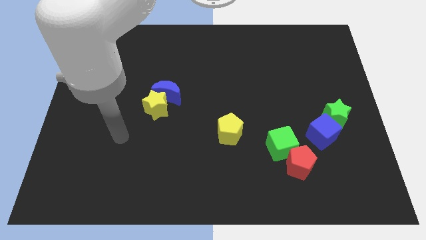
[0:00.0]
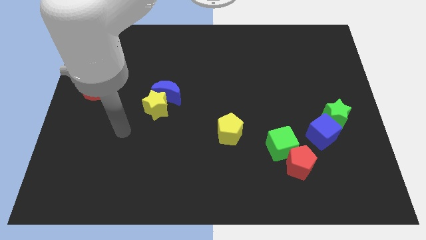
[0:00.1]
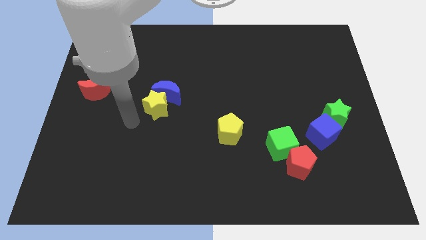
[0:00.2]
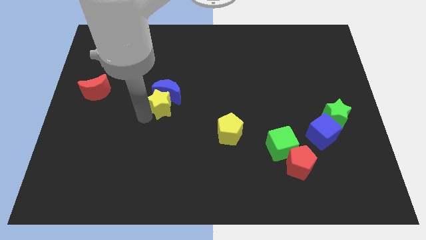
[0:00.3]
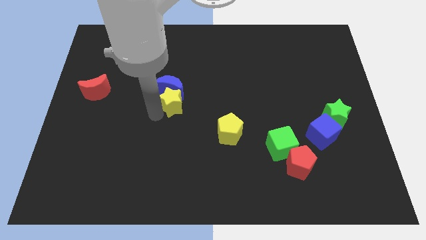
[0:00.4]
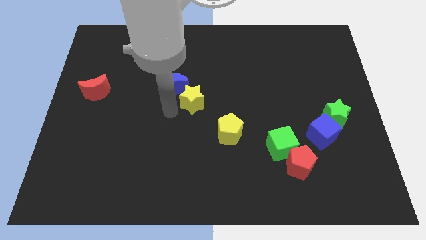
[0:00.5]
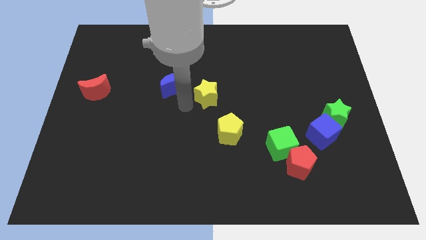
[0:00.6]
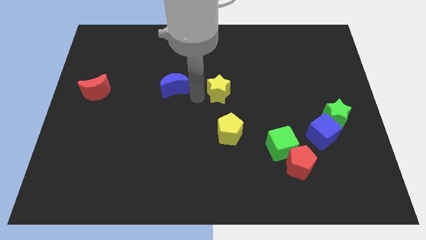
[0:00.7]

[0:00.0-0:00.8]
separate the blue moon from the yellow star

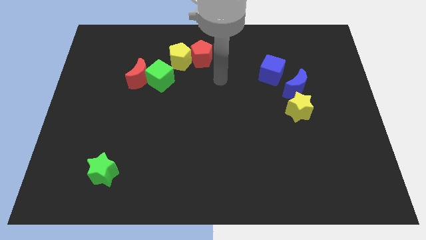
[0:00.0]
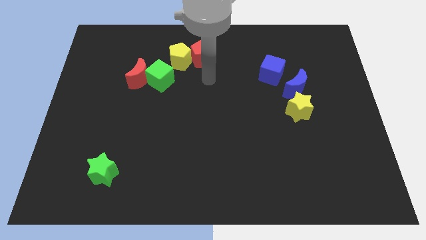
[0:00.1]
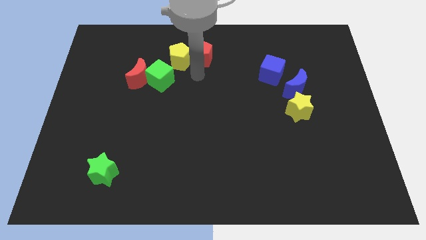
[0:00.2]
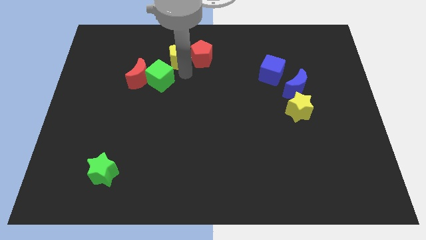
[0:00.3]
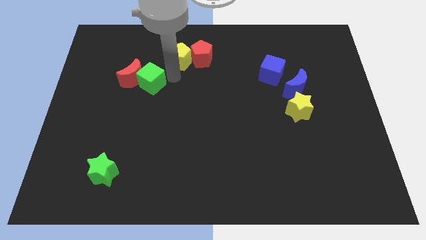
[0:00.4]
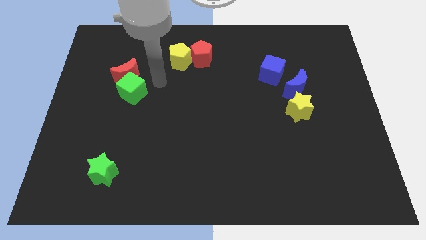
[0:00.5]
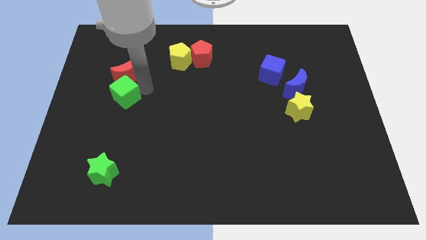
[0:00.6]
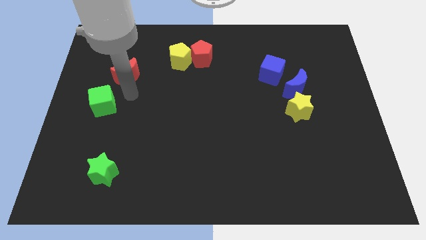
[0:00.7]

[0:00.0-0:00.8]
move the red moon away from the green cube

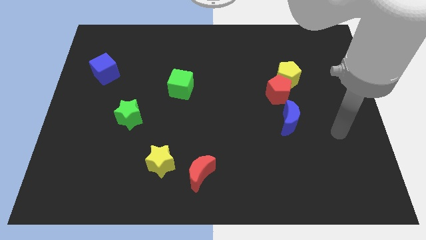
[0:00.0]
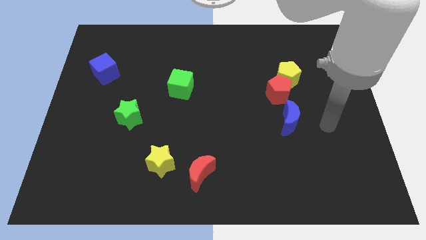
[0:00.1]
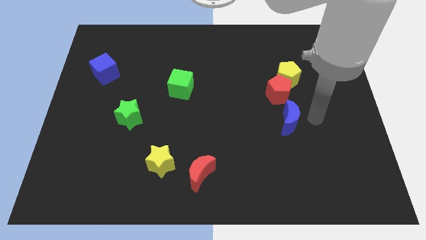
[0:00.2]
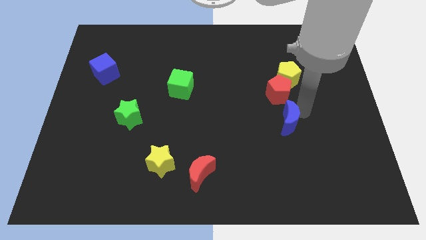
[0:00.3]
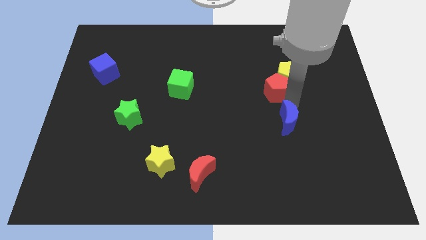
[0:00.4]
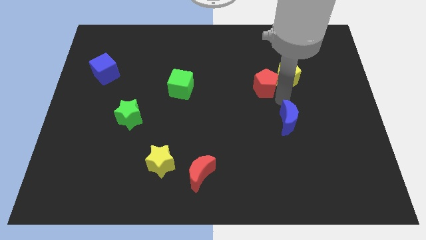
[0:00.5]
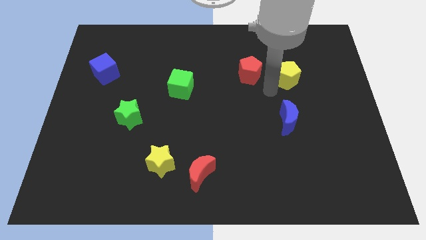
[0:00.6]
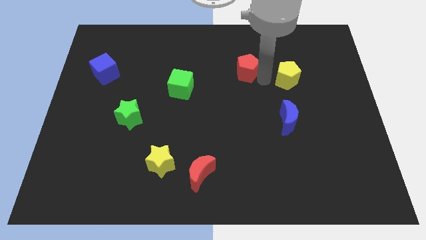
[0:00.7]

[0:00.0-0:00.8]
separate the yellow pentagon from the red pentagon

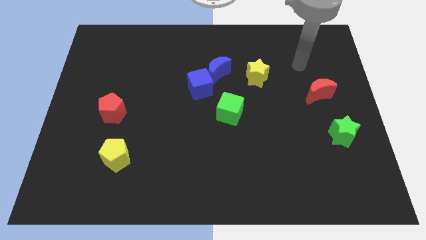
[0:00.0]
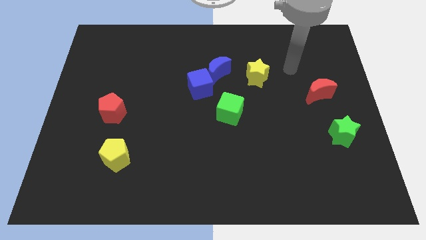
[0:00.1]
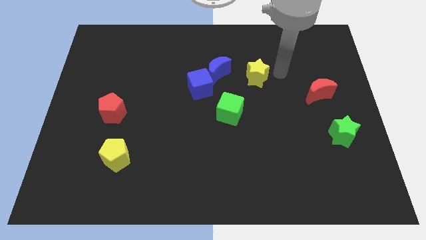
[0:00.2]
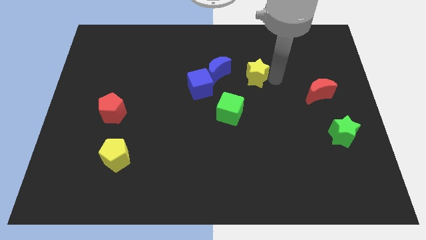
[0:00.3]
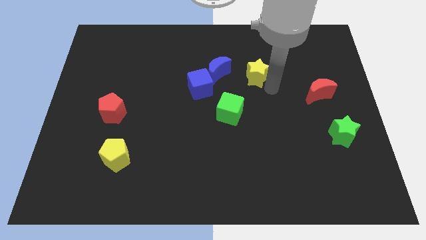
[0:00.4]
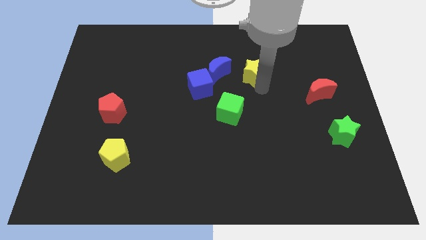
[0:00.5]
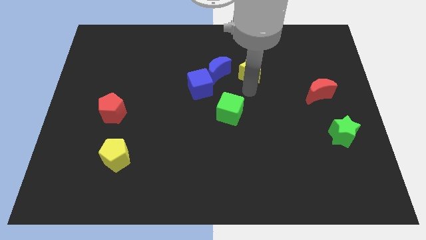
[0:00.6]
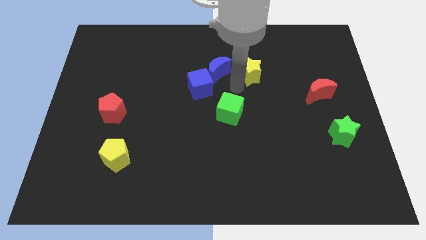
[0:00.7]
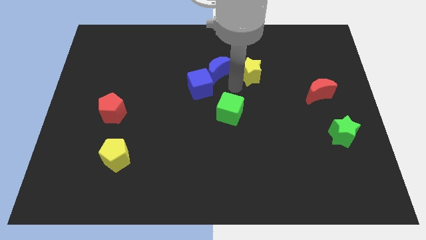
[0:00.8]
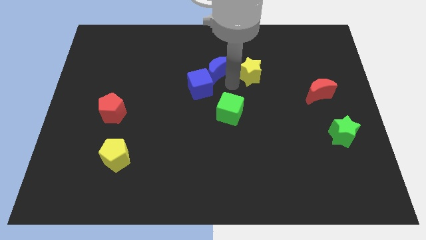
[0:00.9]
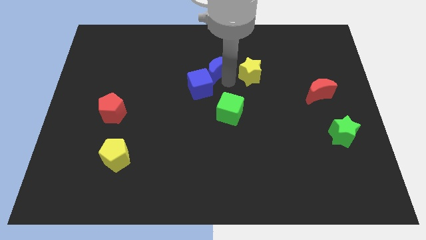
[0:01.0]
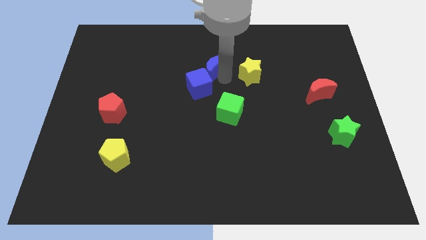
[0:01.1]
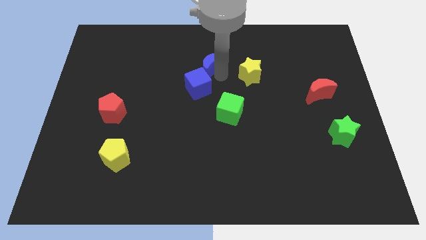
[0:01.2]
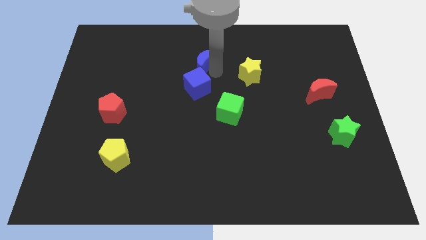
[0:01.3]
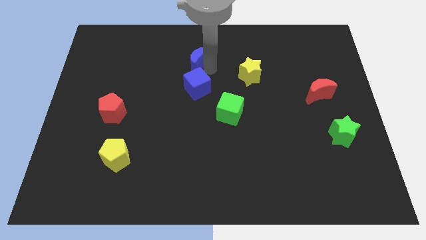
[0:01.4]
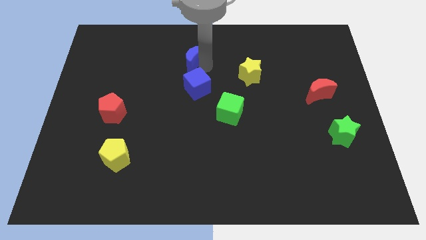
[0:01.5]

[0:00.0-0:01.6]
pull the blue moon apart from the blue cube and yellow star

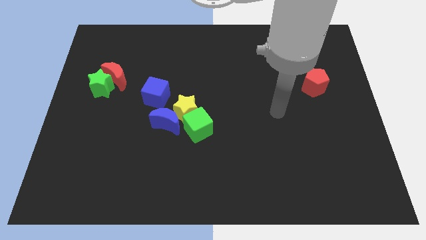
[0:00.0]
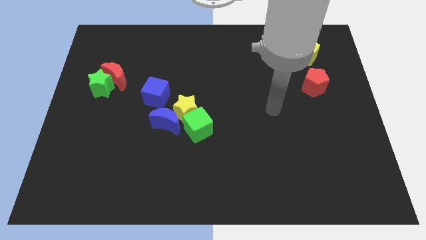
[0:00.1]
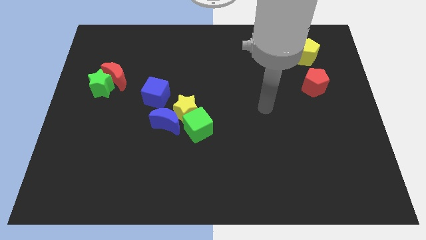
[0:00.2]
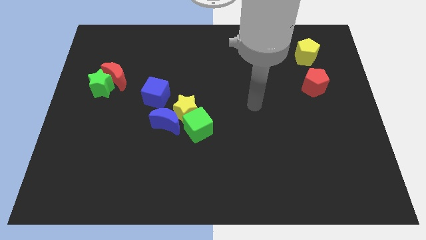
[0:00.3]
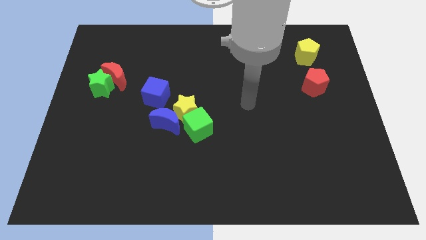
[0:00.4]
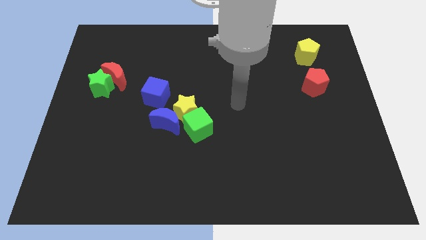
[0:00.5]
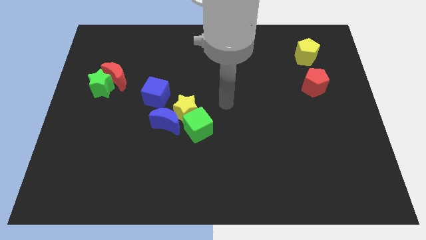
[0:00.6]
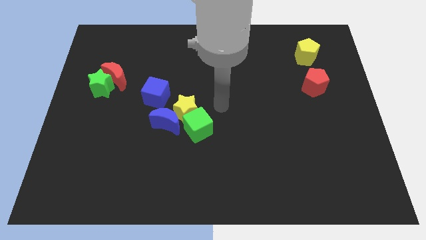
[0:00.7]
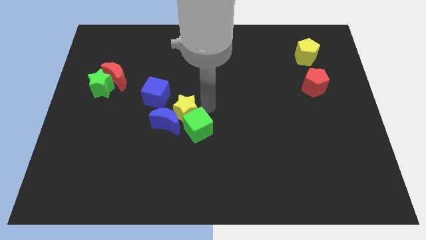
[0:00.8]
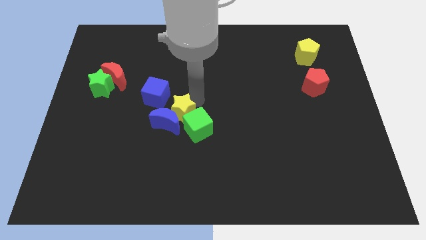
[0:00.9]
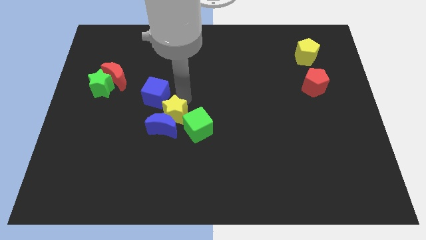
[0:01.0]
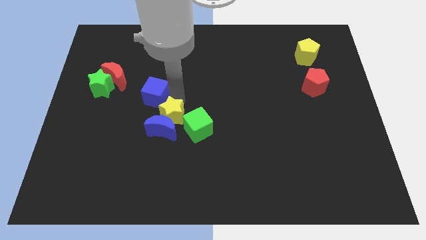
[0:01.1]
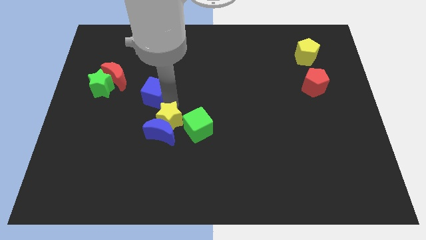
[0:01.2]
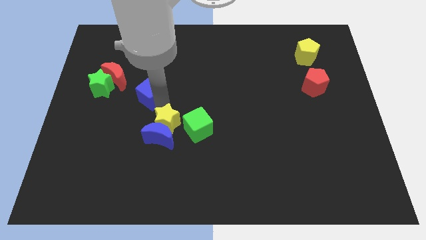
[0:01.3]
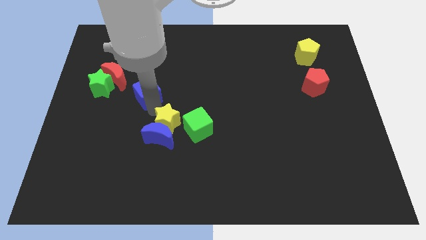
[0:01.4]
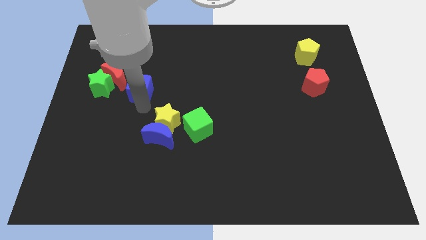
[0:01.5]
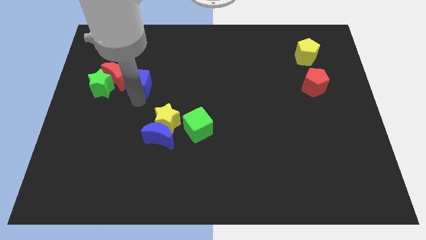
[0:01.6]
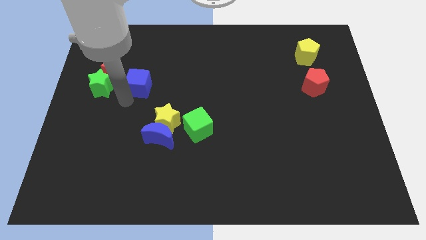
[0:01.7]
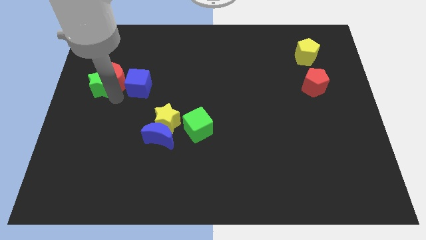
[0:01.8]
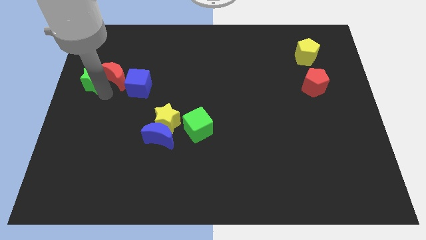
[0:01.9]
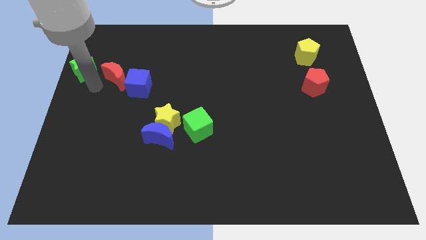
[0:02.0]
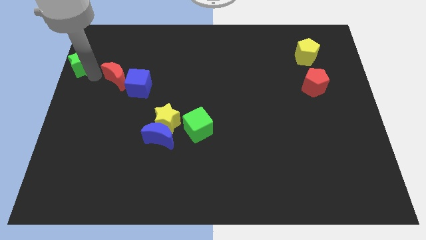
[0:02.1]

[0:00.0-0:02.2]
move the red moon away from the green star

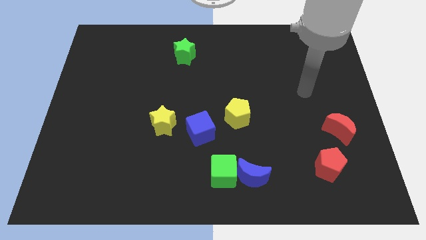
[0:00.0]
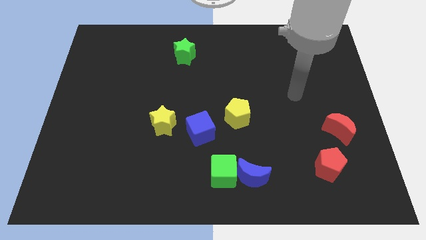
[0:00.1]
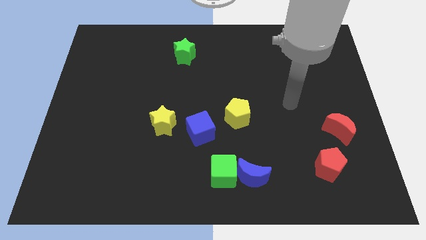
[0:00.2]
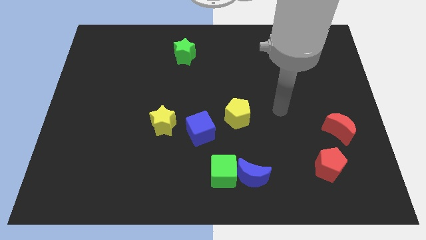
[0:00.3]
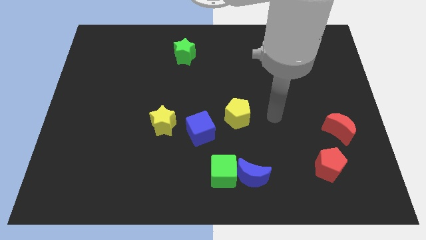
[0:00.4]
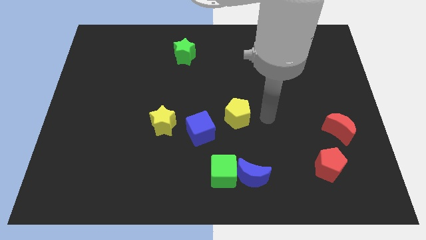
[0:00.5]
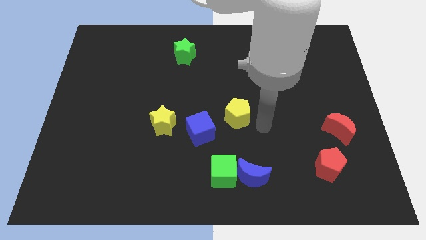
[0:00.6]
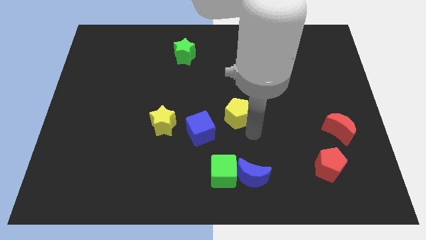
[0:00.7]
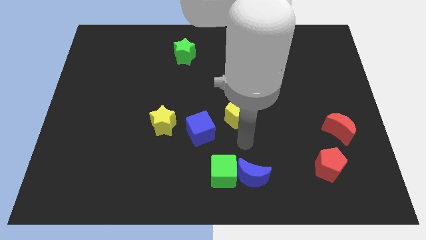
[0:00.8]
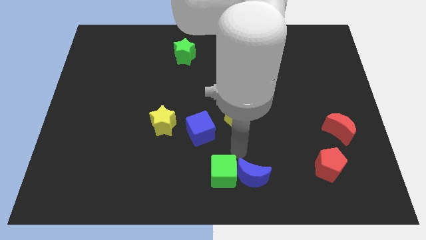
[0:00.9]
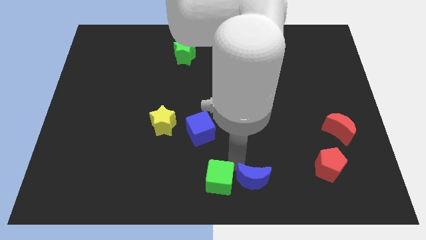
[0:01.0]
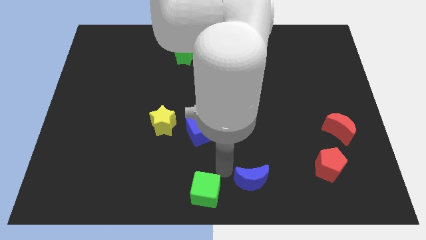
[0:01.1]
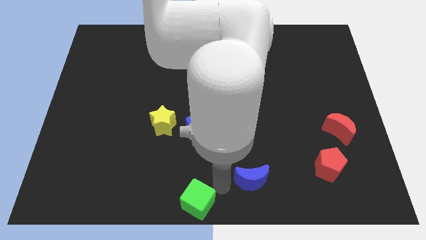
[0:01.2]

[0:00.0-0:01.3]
pull the blue moon apart from the green cube

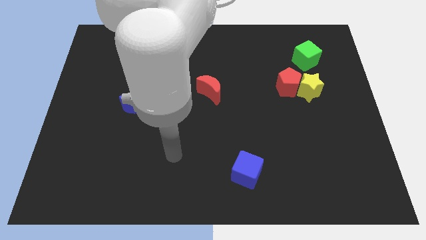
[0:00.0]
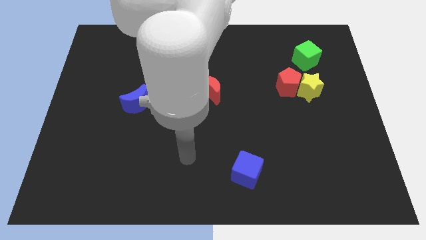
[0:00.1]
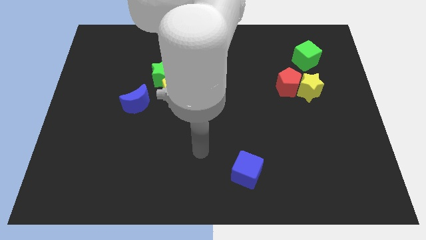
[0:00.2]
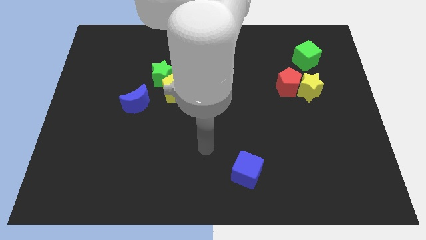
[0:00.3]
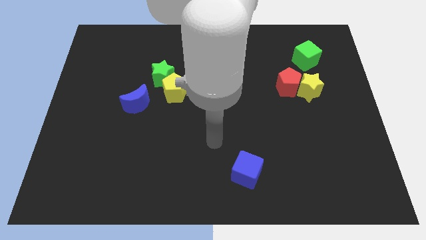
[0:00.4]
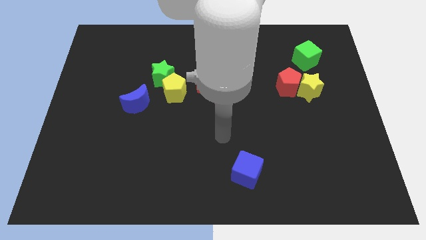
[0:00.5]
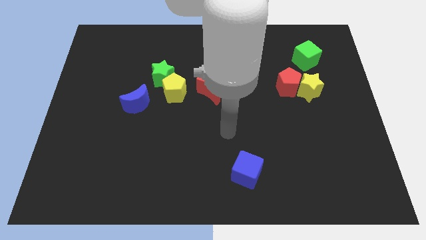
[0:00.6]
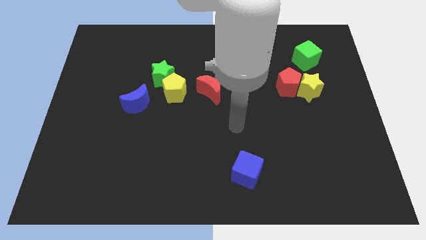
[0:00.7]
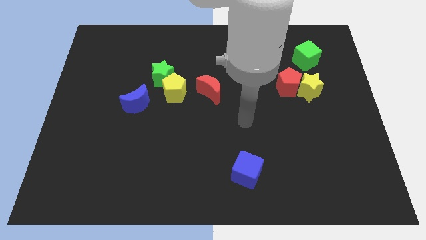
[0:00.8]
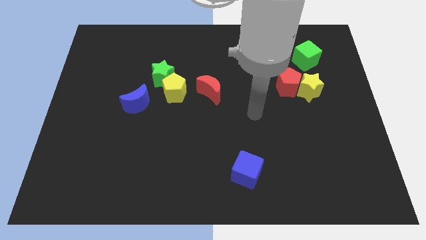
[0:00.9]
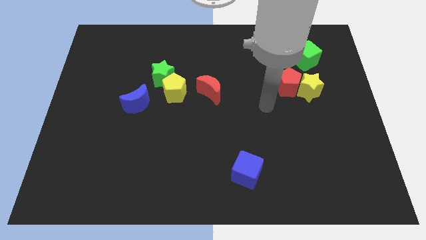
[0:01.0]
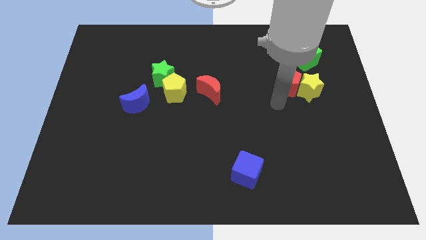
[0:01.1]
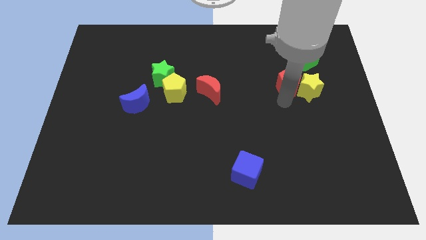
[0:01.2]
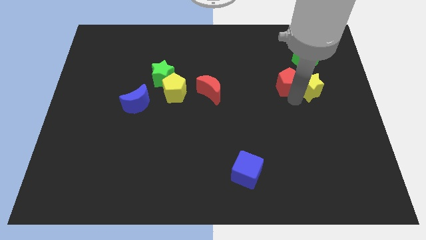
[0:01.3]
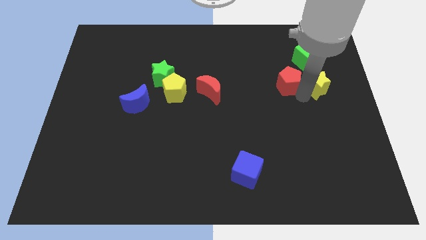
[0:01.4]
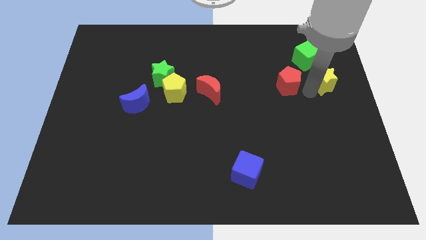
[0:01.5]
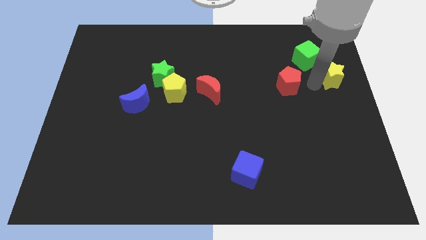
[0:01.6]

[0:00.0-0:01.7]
separate the red pentagon from the yellow star

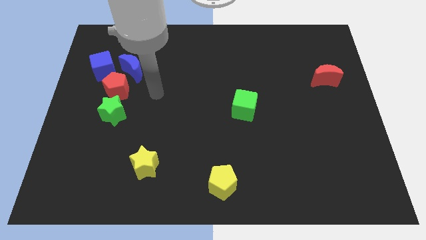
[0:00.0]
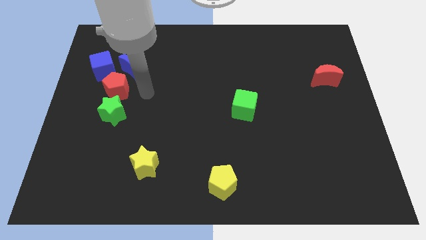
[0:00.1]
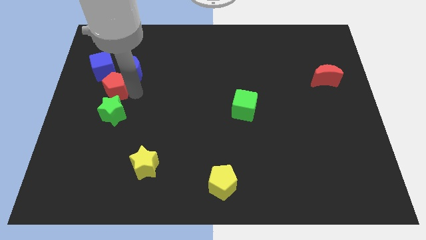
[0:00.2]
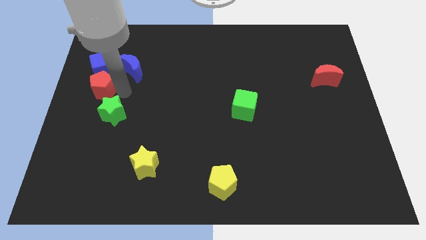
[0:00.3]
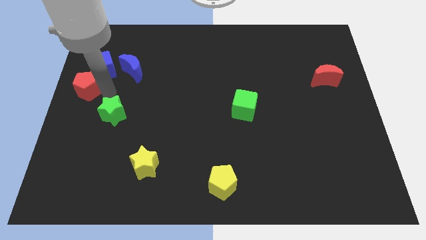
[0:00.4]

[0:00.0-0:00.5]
pull the green star apart from the red pentagon
